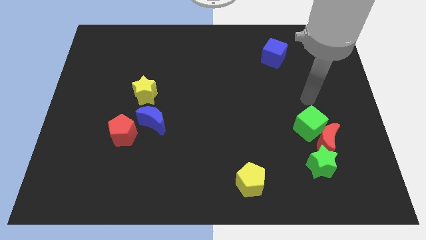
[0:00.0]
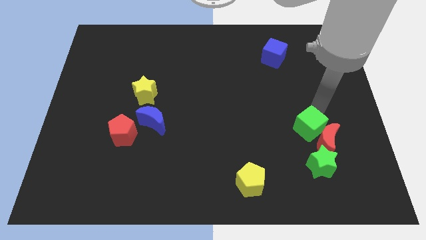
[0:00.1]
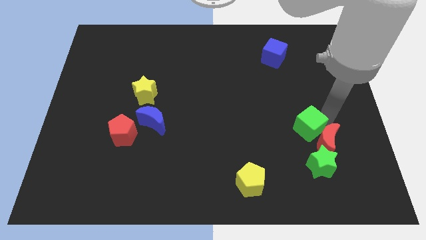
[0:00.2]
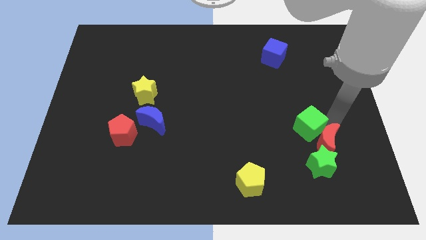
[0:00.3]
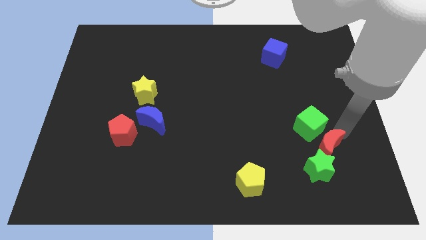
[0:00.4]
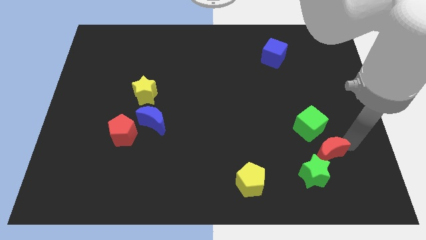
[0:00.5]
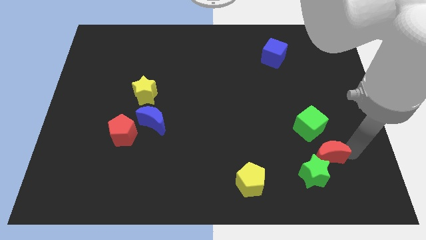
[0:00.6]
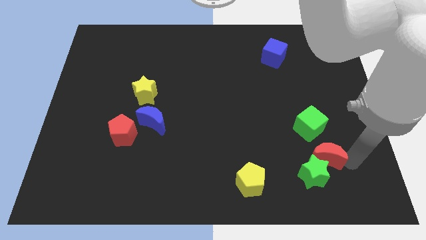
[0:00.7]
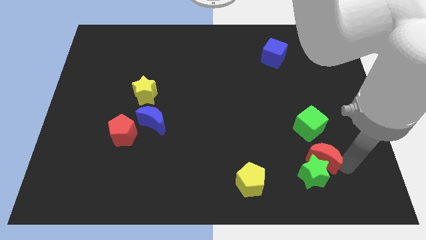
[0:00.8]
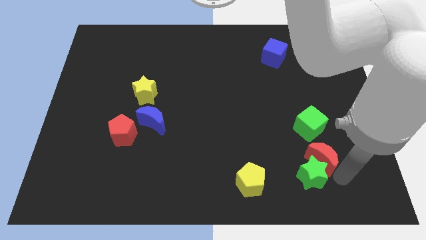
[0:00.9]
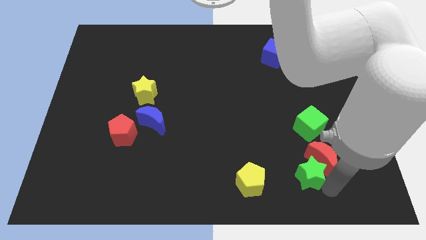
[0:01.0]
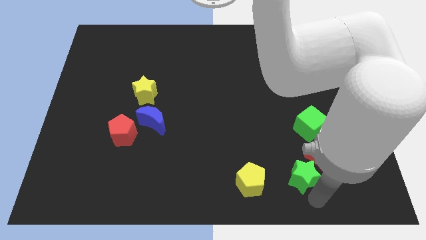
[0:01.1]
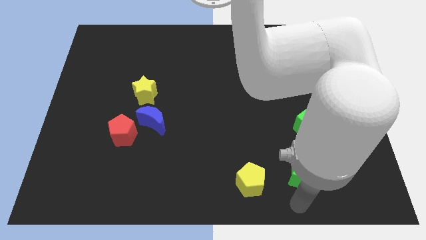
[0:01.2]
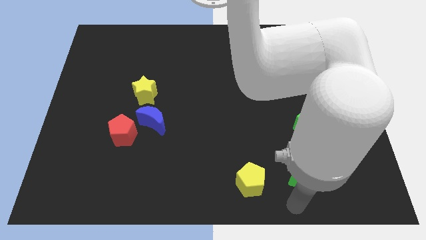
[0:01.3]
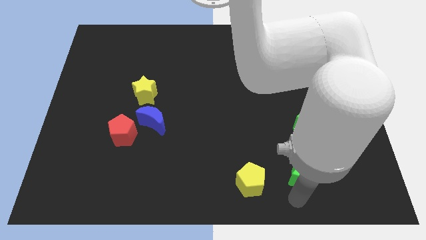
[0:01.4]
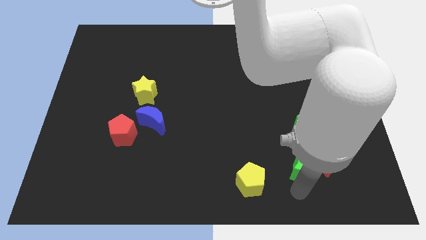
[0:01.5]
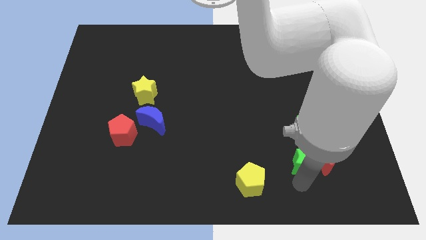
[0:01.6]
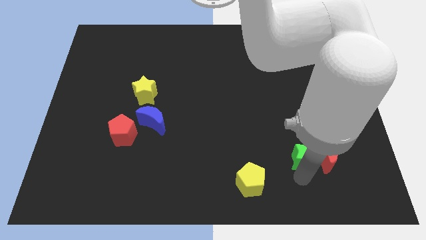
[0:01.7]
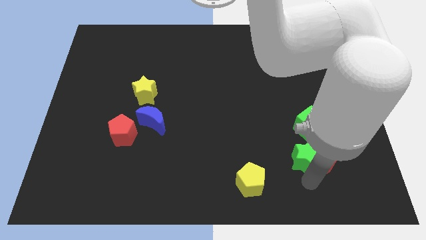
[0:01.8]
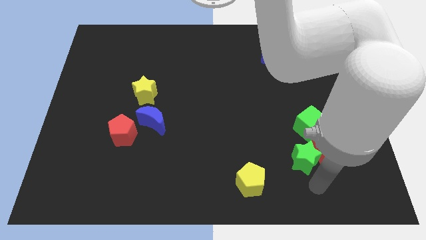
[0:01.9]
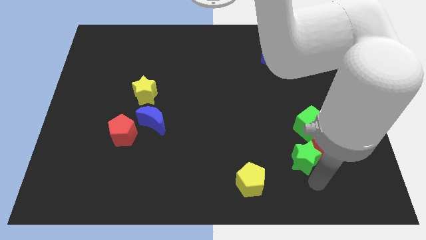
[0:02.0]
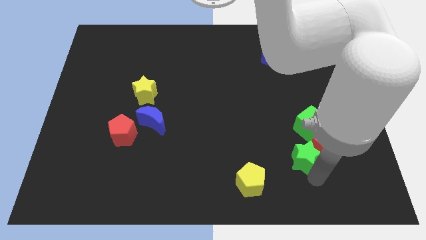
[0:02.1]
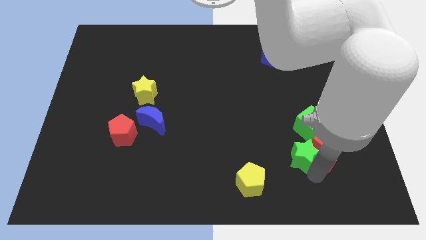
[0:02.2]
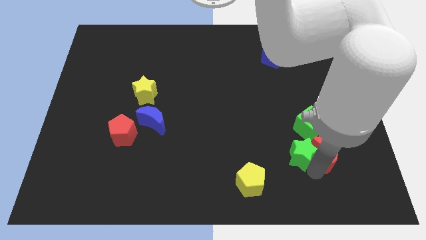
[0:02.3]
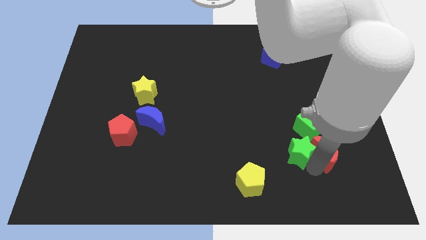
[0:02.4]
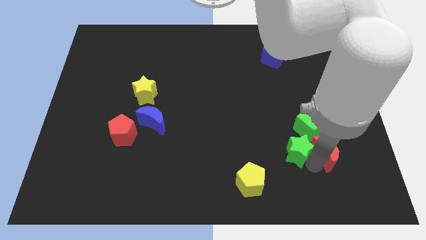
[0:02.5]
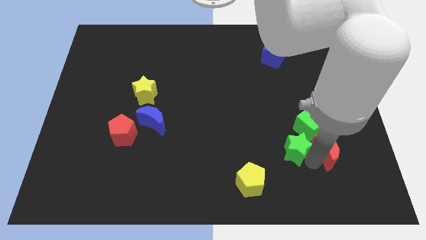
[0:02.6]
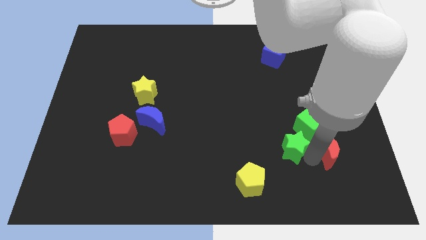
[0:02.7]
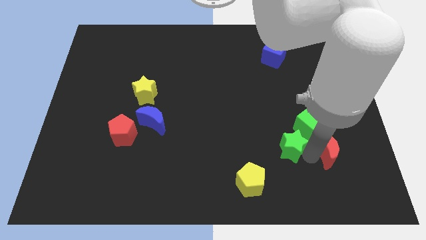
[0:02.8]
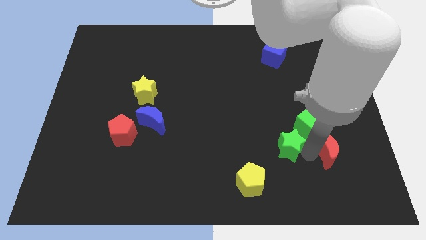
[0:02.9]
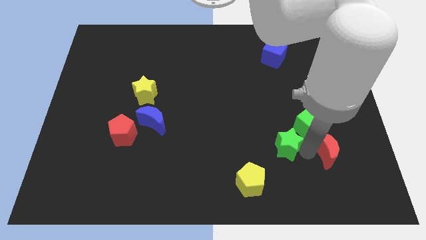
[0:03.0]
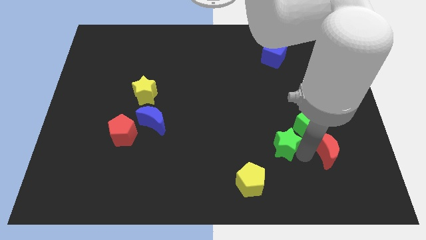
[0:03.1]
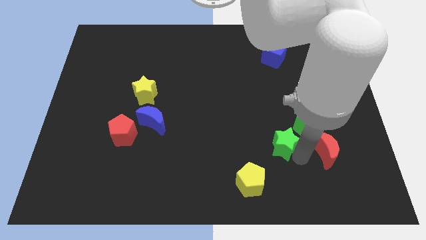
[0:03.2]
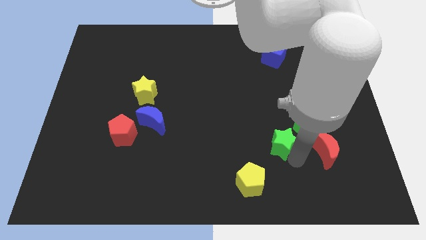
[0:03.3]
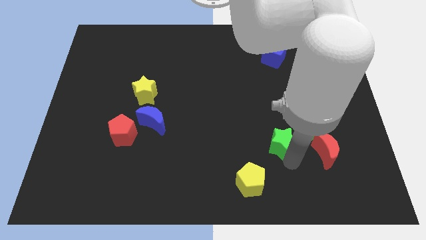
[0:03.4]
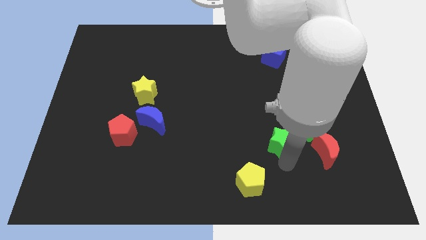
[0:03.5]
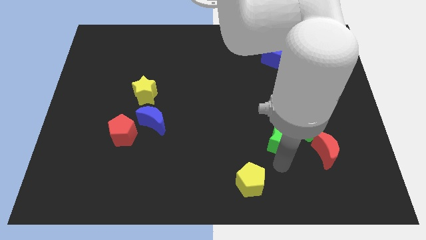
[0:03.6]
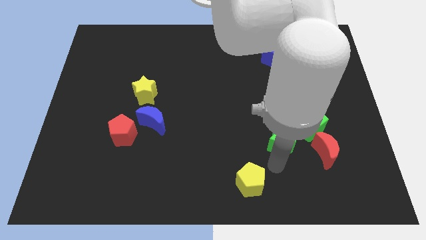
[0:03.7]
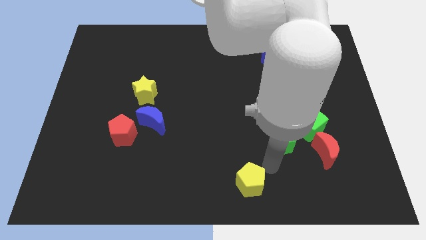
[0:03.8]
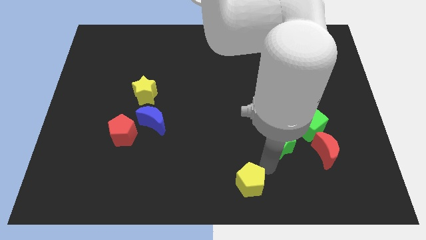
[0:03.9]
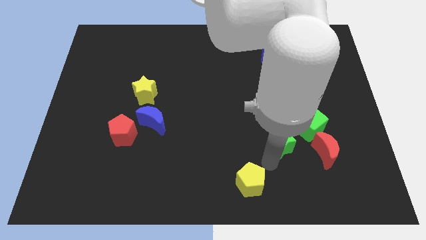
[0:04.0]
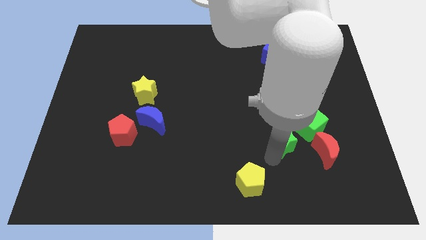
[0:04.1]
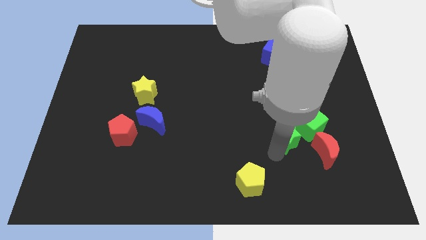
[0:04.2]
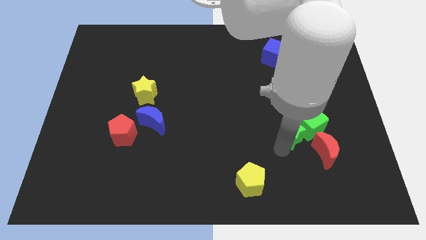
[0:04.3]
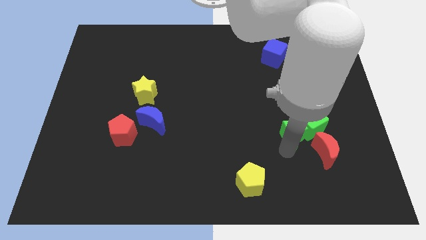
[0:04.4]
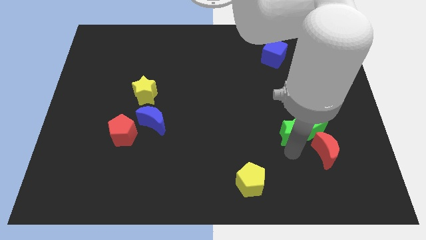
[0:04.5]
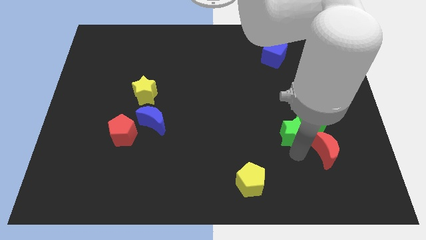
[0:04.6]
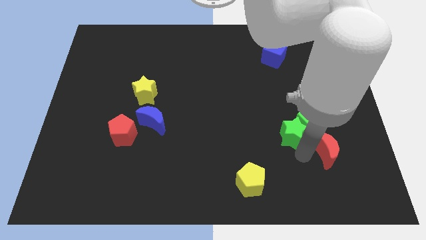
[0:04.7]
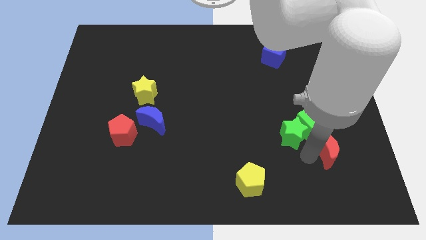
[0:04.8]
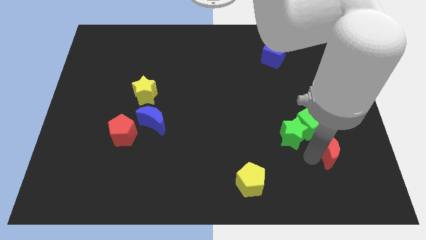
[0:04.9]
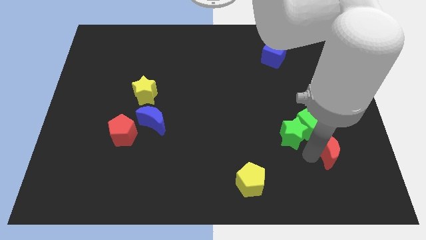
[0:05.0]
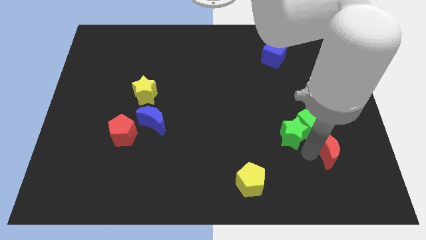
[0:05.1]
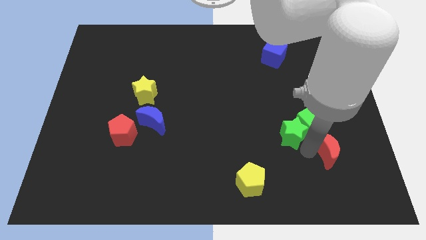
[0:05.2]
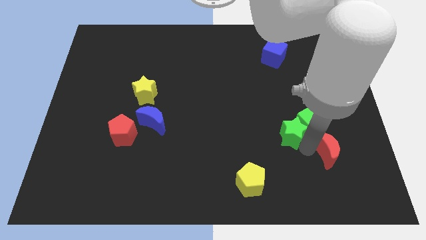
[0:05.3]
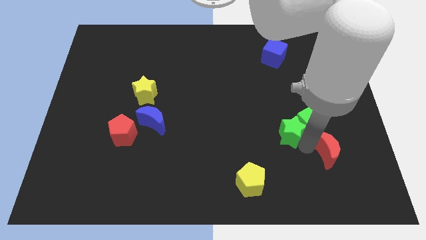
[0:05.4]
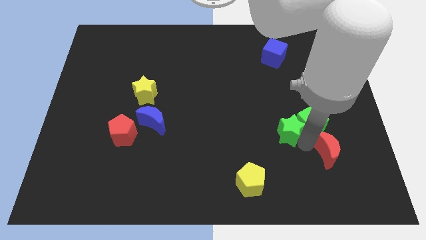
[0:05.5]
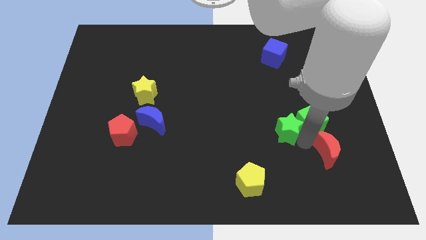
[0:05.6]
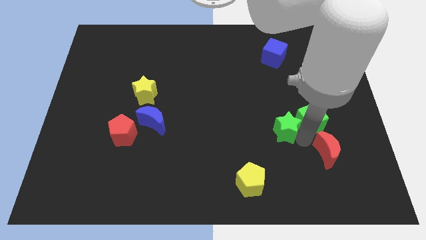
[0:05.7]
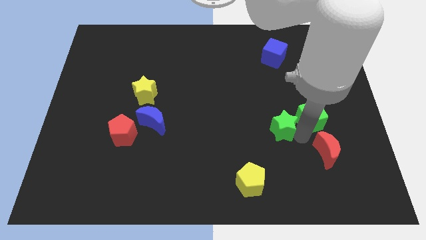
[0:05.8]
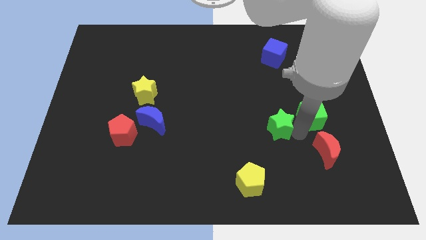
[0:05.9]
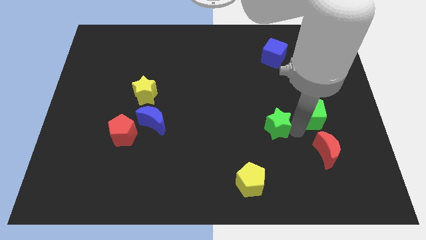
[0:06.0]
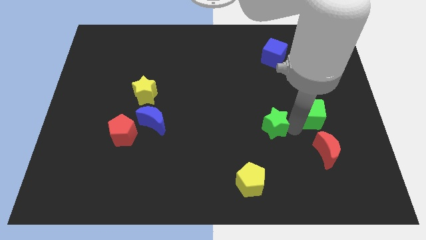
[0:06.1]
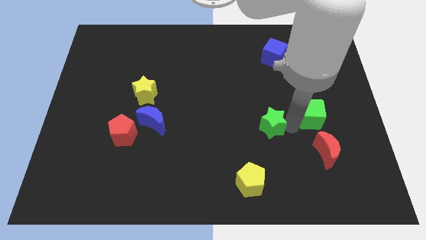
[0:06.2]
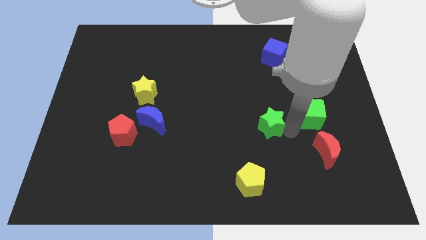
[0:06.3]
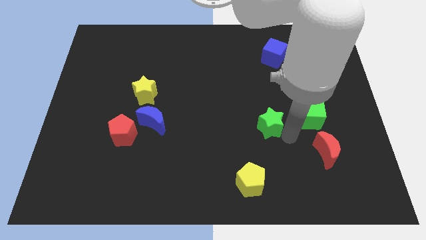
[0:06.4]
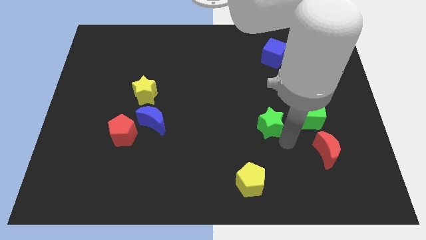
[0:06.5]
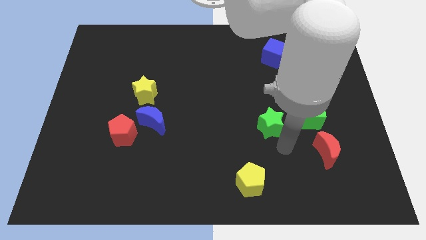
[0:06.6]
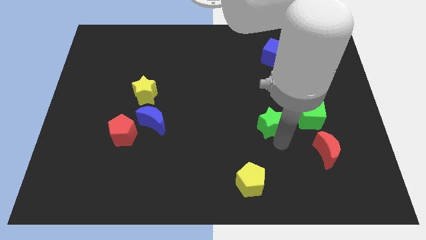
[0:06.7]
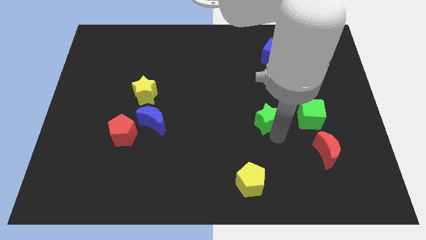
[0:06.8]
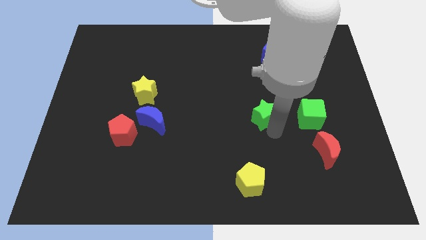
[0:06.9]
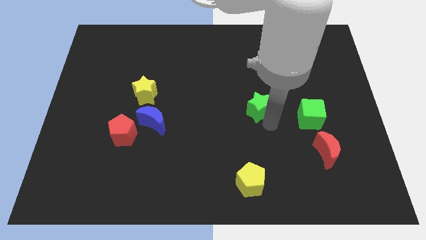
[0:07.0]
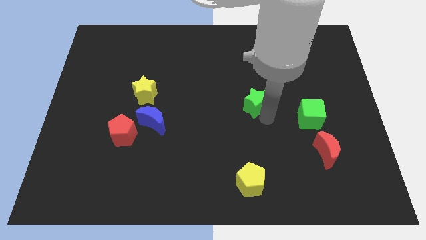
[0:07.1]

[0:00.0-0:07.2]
slide the green star up and to the left diagonally

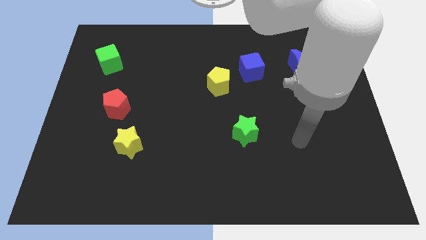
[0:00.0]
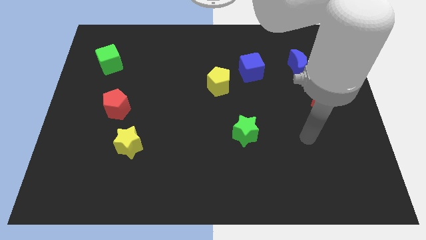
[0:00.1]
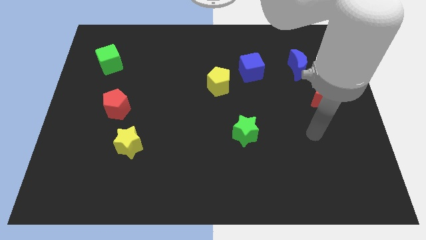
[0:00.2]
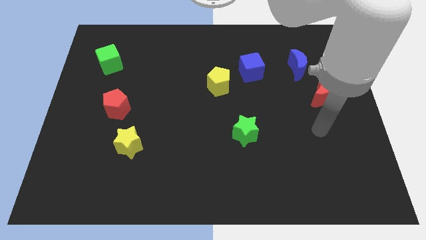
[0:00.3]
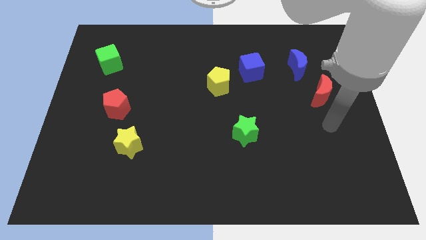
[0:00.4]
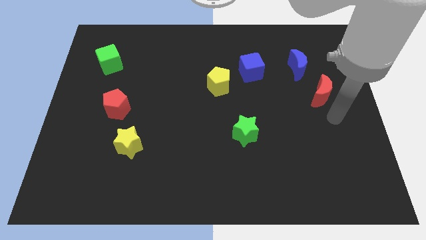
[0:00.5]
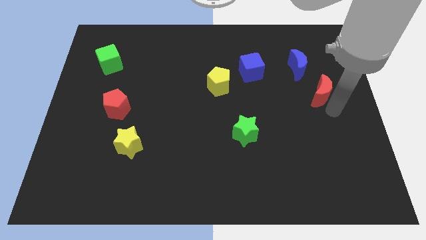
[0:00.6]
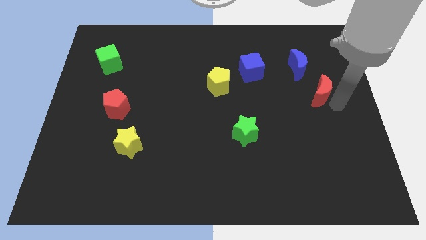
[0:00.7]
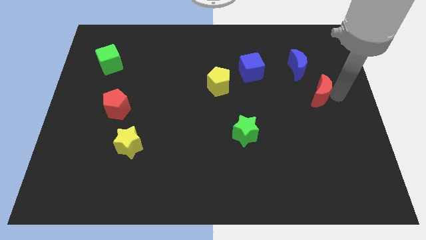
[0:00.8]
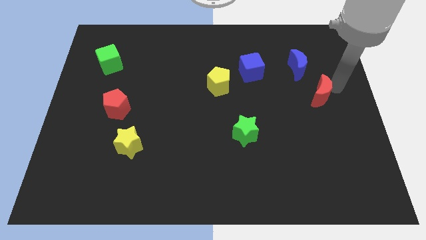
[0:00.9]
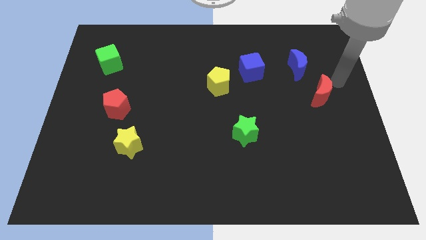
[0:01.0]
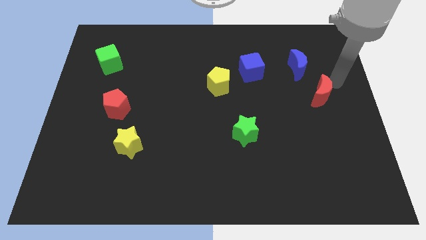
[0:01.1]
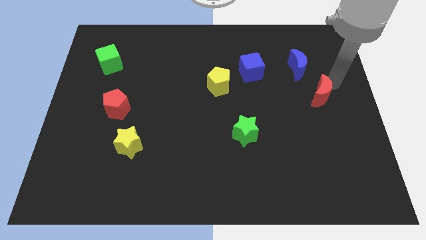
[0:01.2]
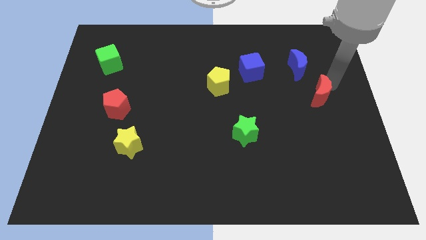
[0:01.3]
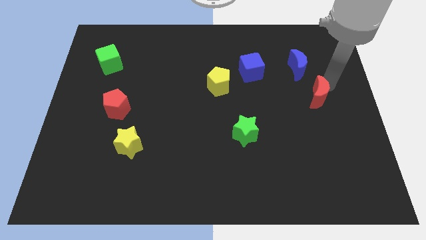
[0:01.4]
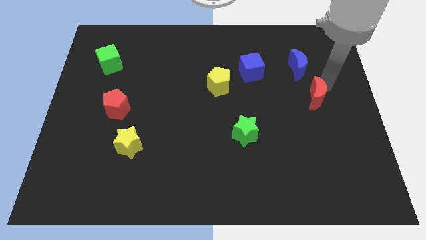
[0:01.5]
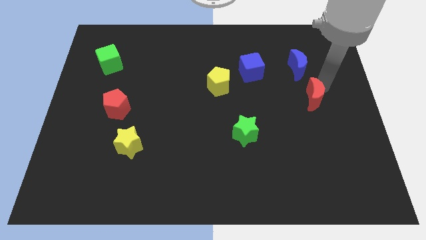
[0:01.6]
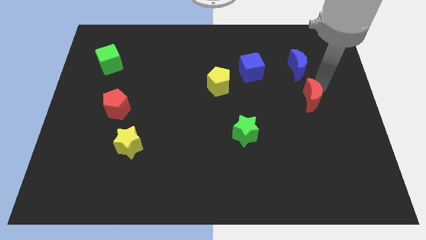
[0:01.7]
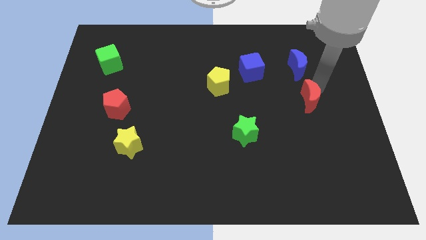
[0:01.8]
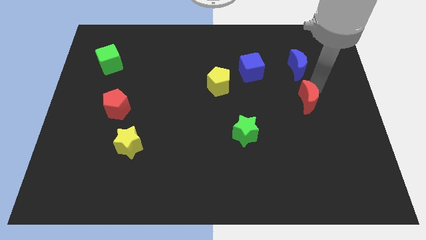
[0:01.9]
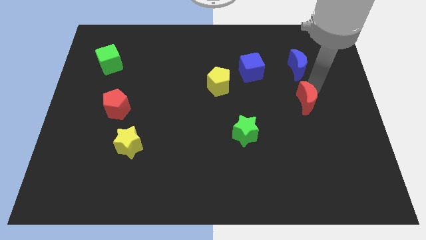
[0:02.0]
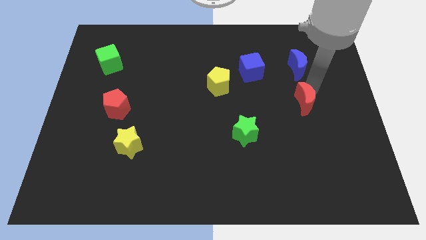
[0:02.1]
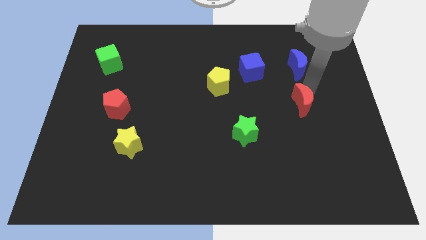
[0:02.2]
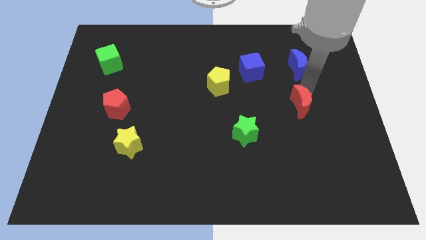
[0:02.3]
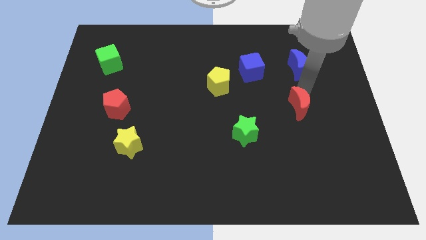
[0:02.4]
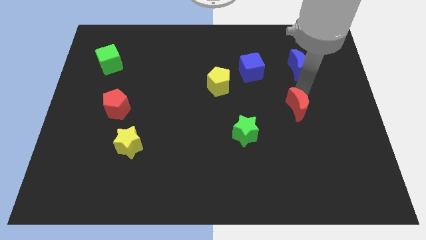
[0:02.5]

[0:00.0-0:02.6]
push the red moon slightly downwards and then left
